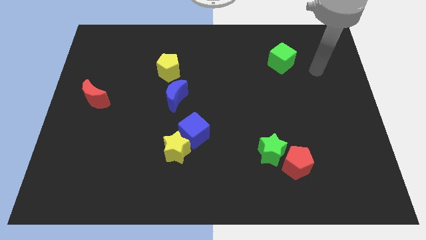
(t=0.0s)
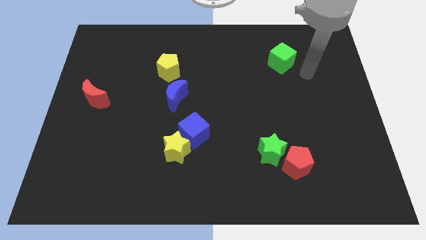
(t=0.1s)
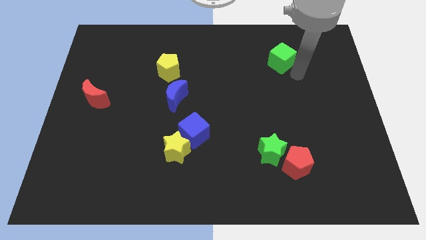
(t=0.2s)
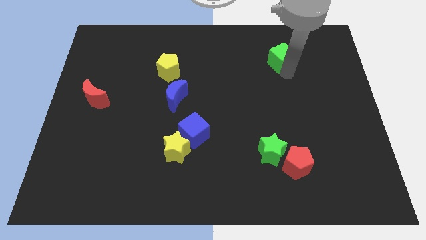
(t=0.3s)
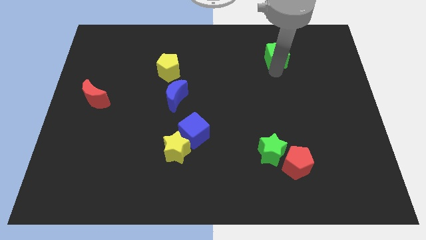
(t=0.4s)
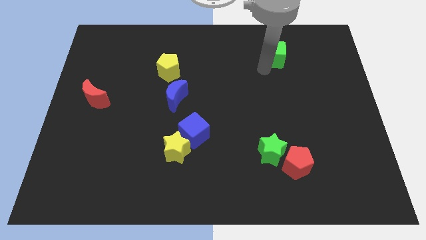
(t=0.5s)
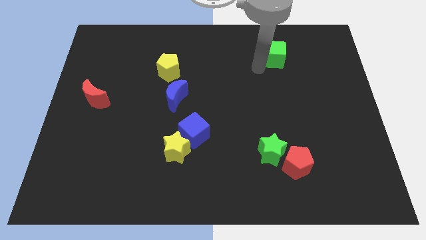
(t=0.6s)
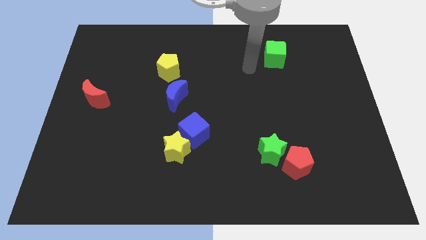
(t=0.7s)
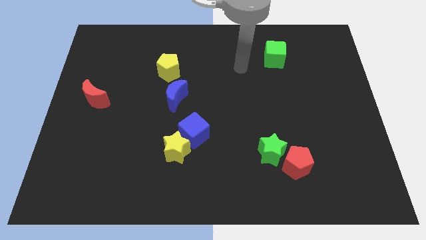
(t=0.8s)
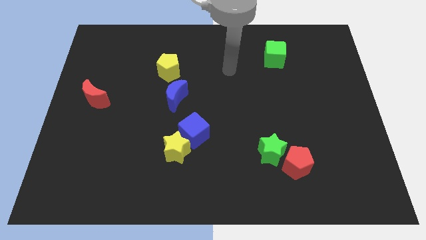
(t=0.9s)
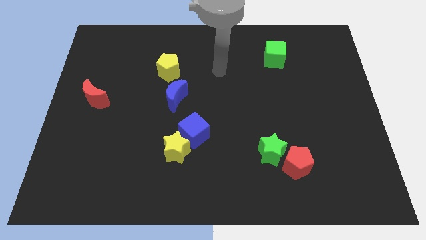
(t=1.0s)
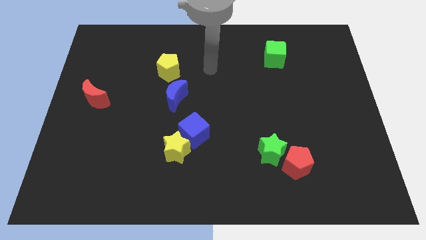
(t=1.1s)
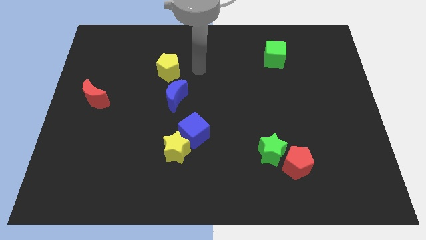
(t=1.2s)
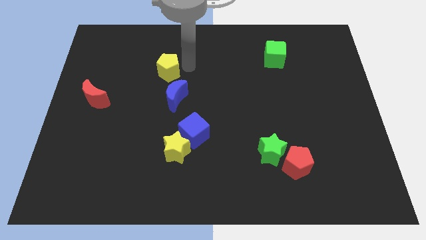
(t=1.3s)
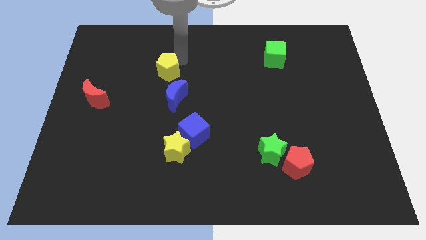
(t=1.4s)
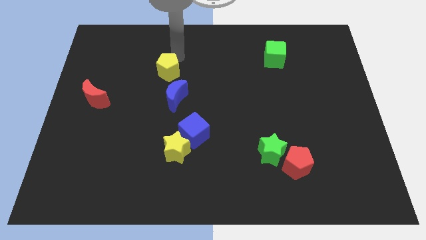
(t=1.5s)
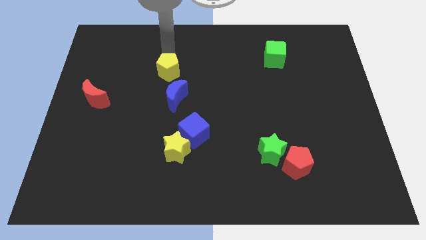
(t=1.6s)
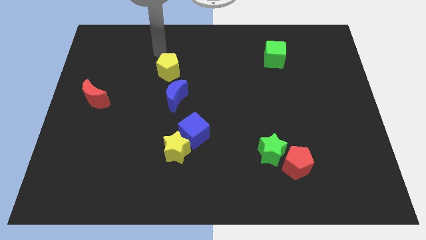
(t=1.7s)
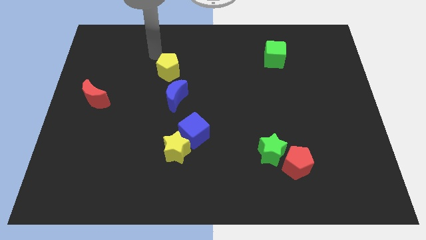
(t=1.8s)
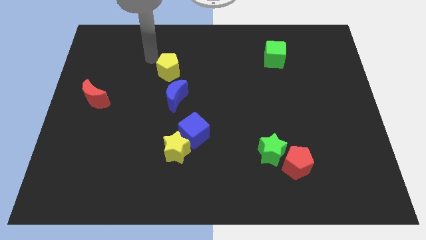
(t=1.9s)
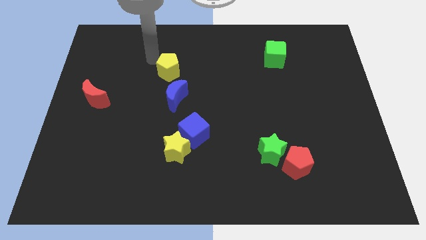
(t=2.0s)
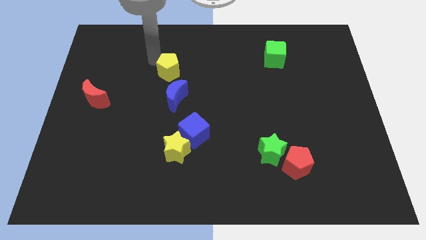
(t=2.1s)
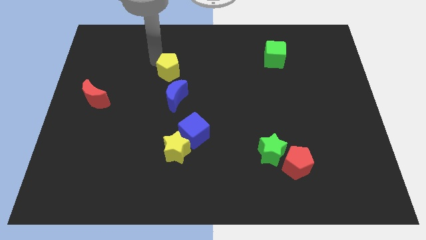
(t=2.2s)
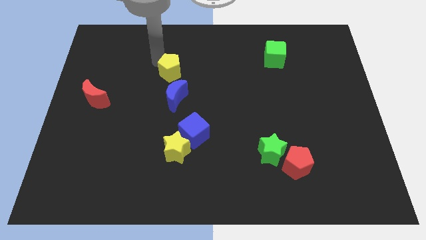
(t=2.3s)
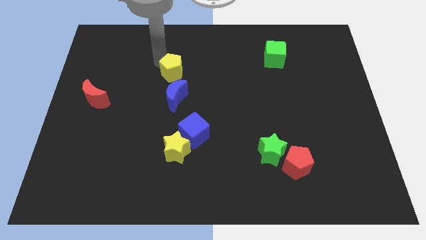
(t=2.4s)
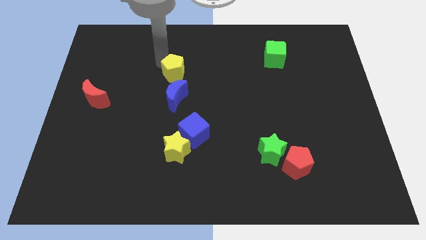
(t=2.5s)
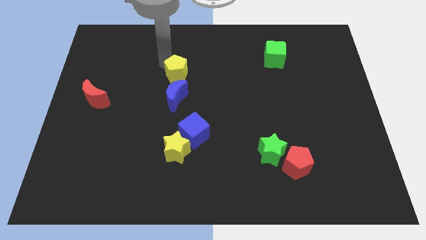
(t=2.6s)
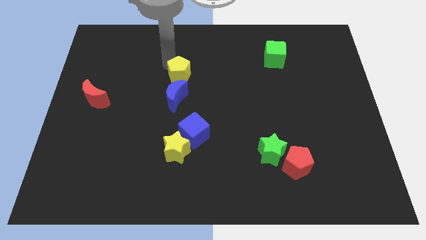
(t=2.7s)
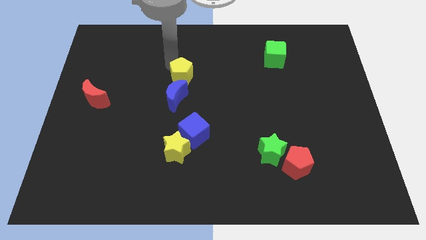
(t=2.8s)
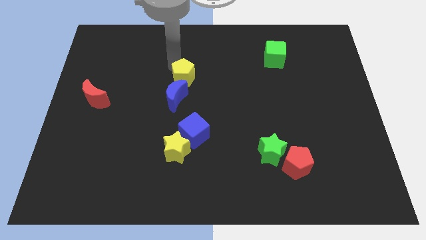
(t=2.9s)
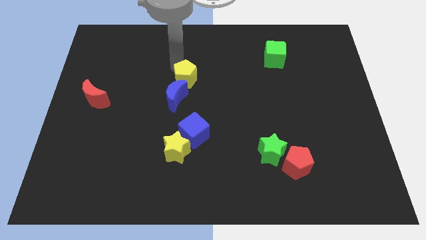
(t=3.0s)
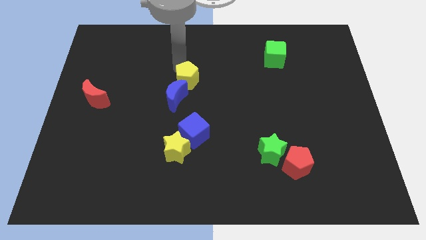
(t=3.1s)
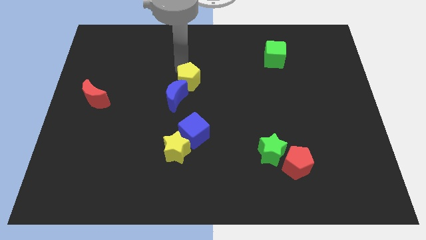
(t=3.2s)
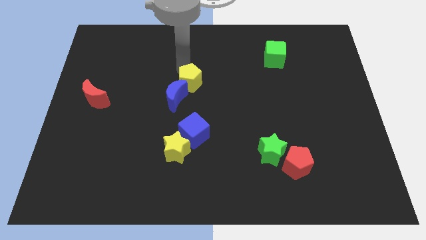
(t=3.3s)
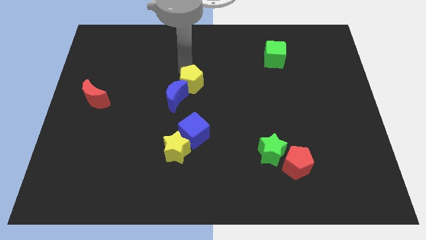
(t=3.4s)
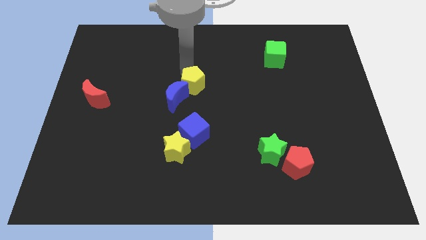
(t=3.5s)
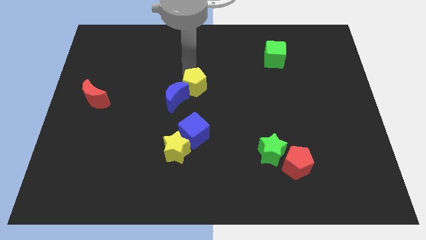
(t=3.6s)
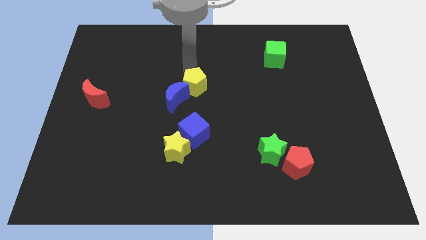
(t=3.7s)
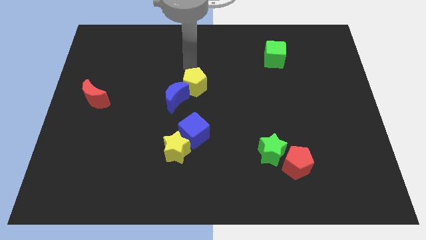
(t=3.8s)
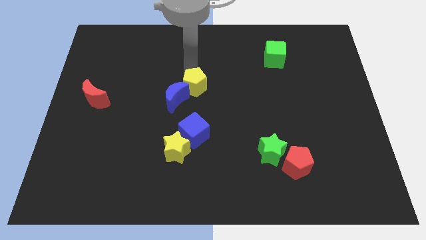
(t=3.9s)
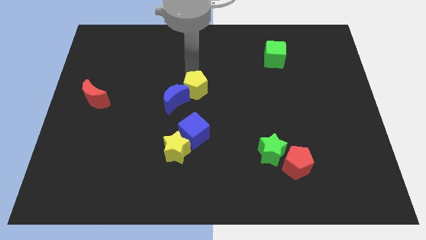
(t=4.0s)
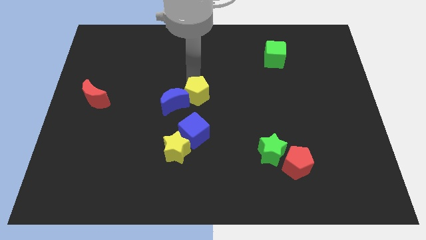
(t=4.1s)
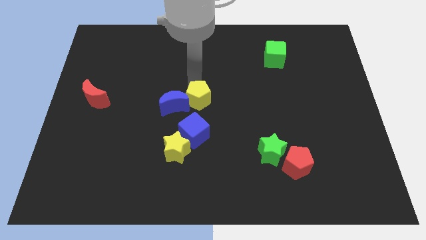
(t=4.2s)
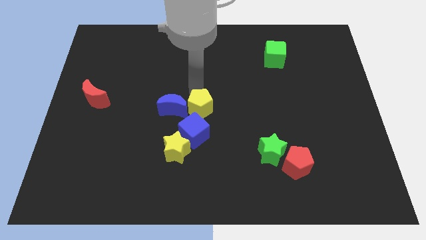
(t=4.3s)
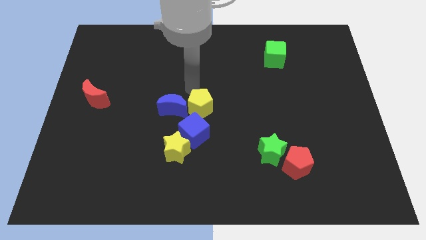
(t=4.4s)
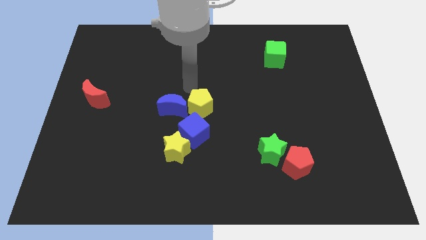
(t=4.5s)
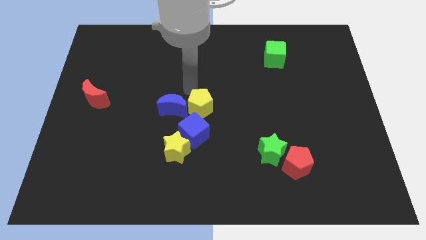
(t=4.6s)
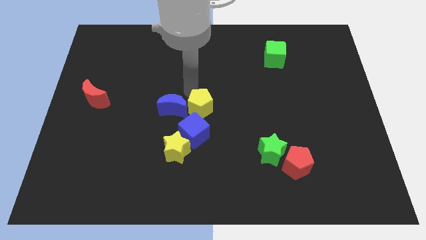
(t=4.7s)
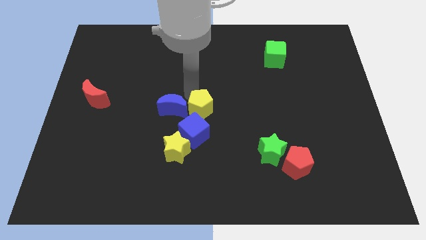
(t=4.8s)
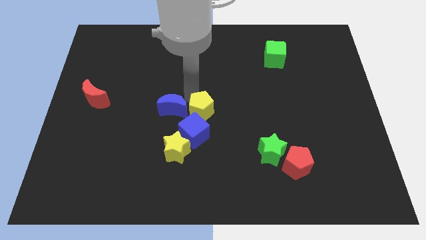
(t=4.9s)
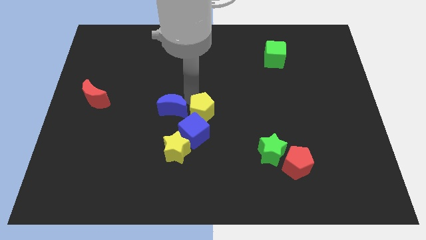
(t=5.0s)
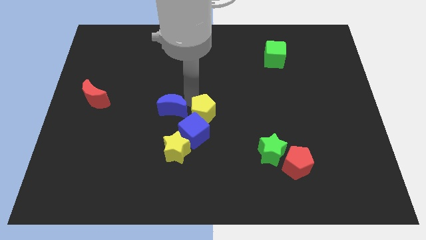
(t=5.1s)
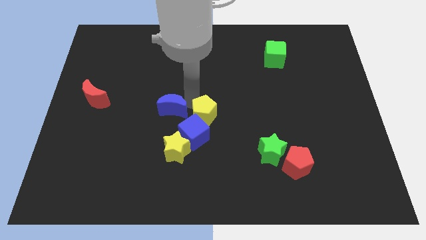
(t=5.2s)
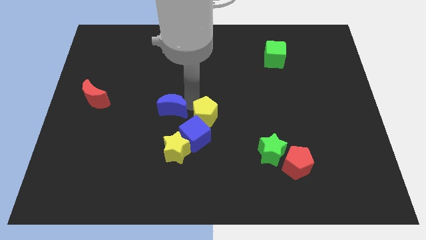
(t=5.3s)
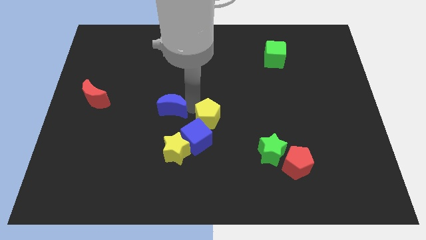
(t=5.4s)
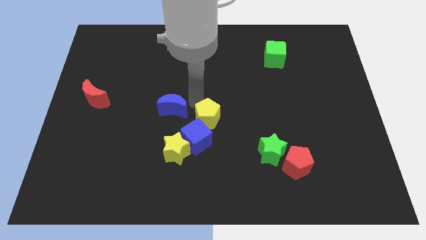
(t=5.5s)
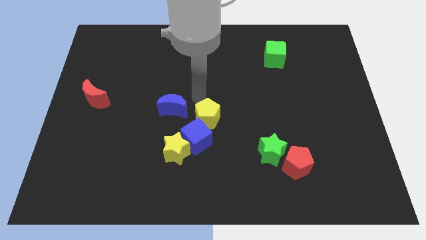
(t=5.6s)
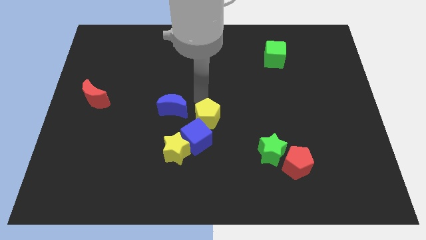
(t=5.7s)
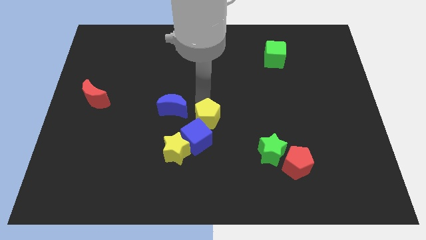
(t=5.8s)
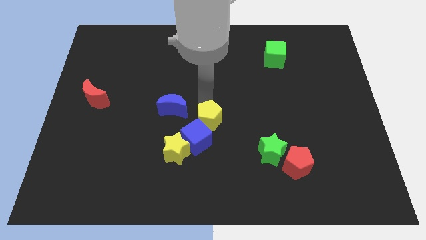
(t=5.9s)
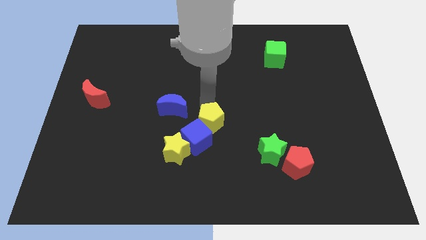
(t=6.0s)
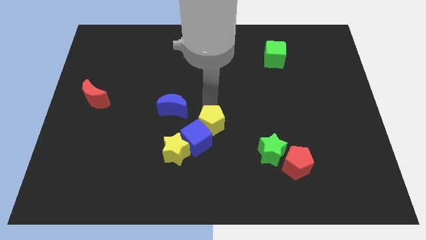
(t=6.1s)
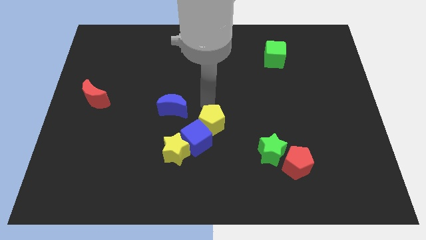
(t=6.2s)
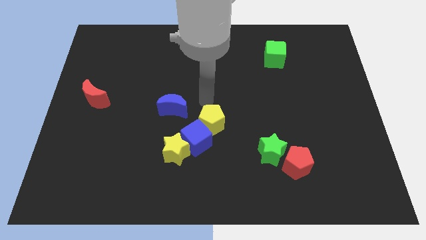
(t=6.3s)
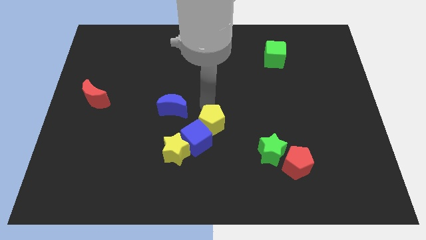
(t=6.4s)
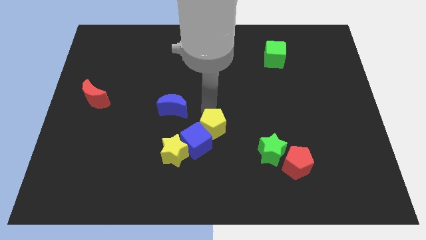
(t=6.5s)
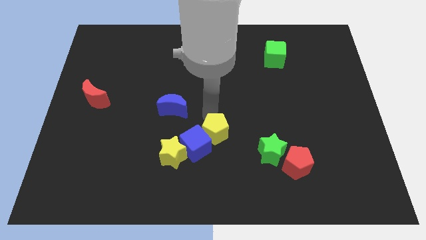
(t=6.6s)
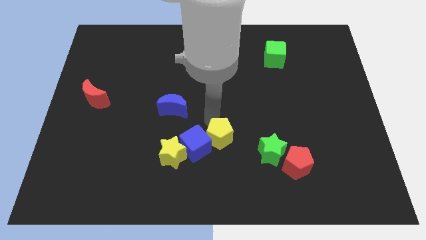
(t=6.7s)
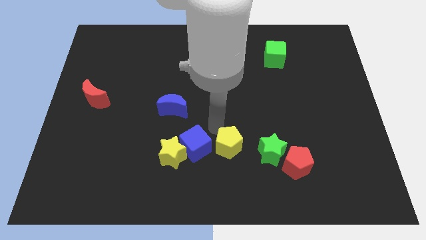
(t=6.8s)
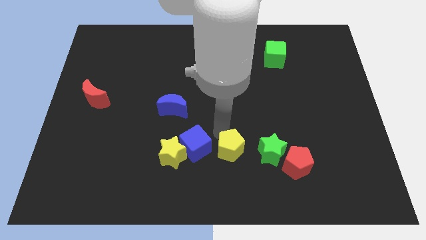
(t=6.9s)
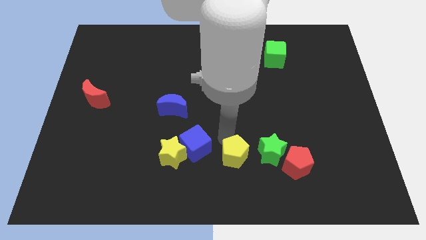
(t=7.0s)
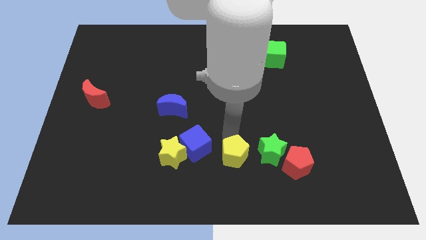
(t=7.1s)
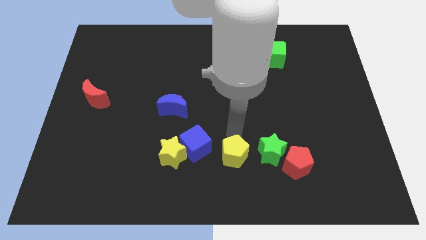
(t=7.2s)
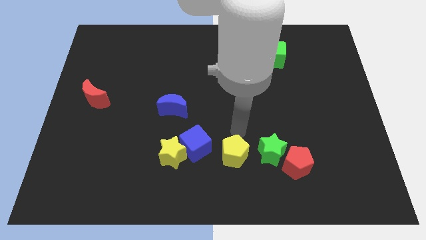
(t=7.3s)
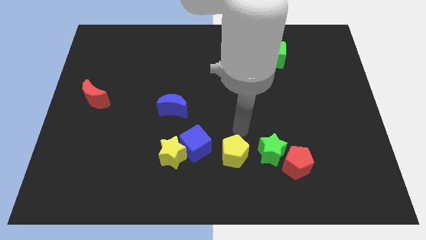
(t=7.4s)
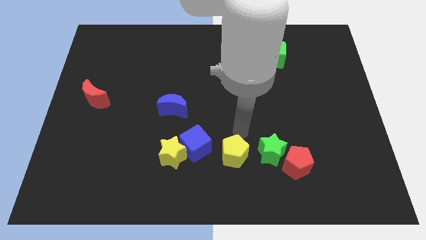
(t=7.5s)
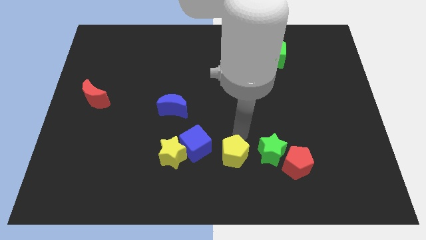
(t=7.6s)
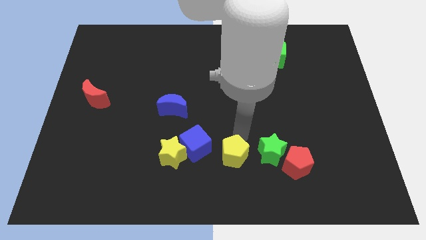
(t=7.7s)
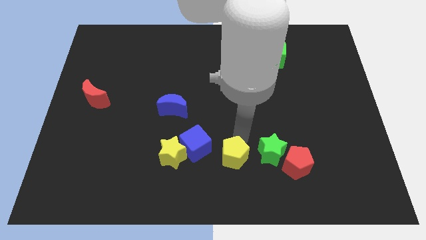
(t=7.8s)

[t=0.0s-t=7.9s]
push the yellow pentagon to the bottom side
